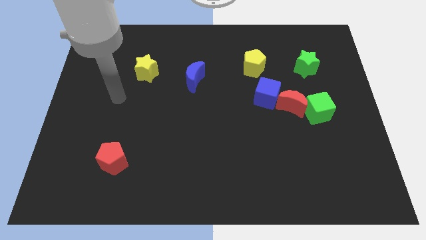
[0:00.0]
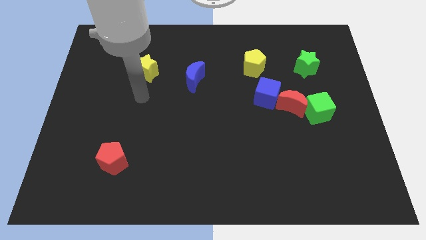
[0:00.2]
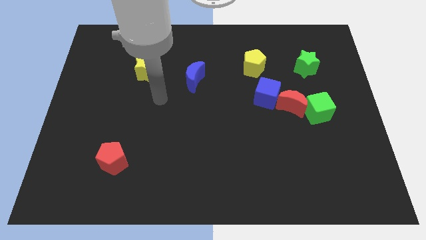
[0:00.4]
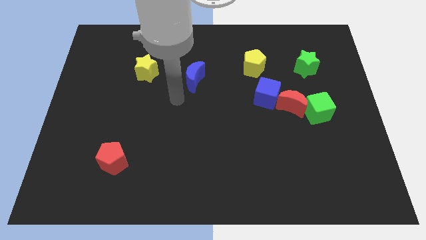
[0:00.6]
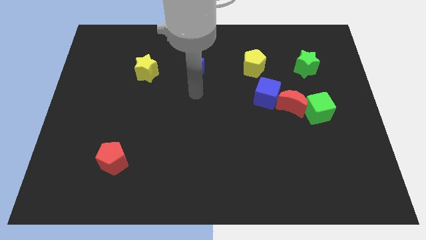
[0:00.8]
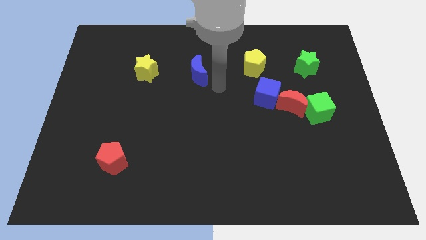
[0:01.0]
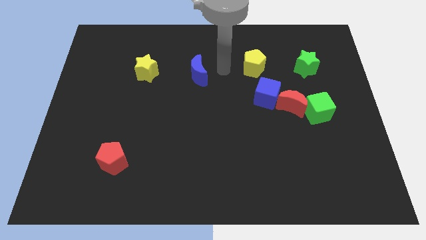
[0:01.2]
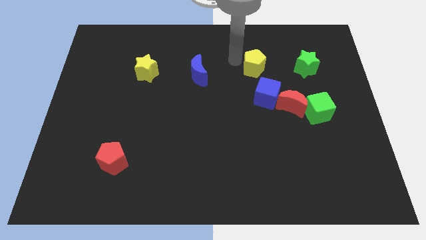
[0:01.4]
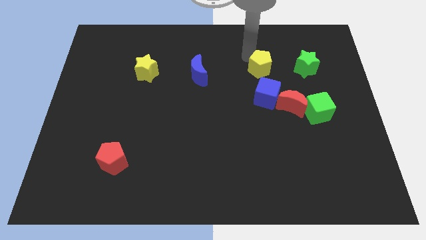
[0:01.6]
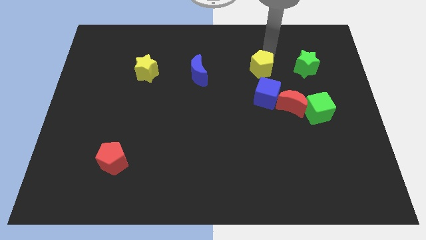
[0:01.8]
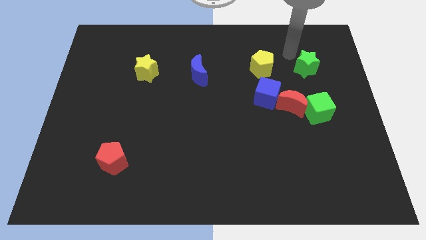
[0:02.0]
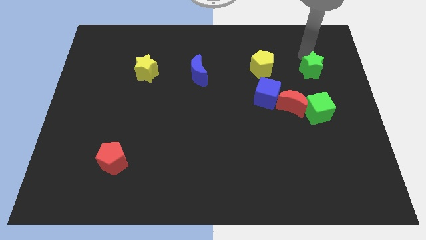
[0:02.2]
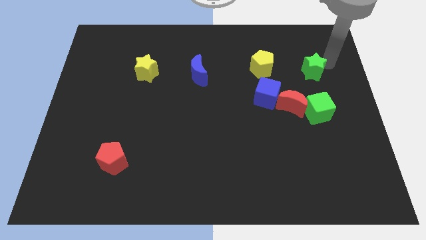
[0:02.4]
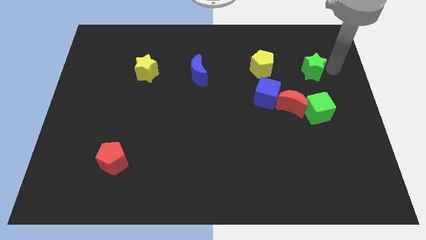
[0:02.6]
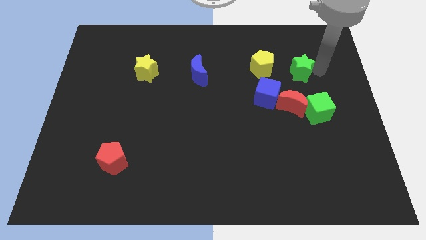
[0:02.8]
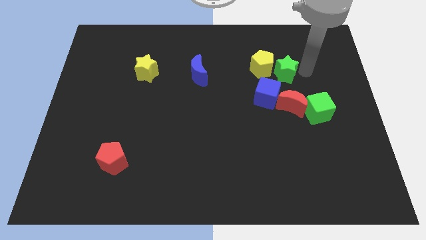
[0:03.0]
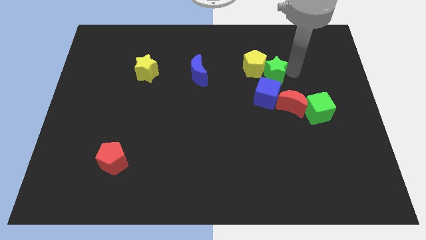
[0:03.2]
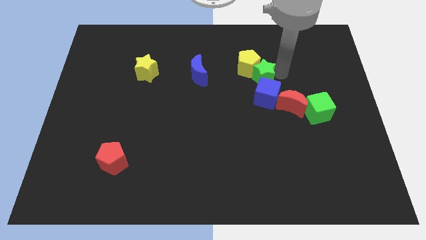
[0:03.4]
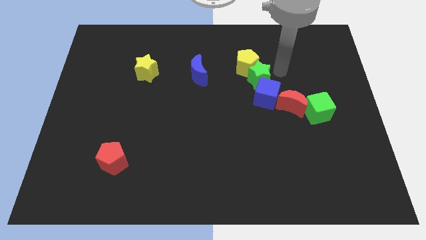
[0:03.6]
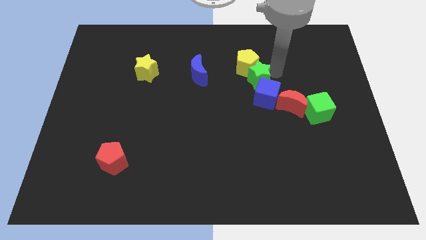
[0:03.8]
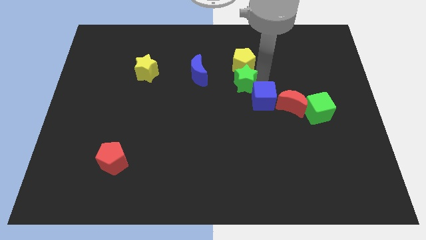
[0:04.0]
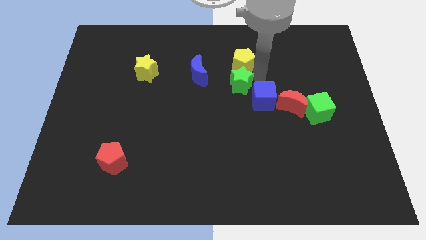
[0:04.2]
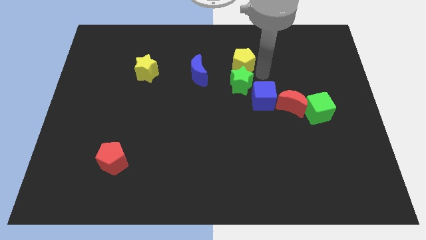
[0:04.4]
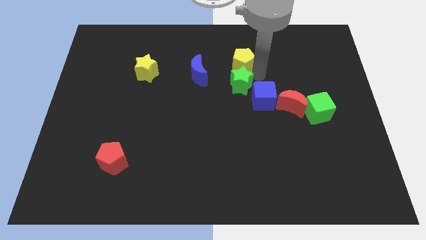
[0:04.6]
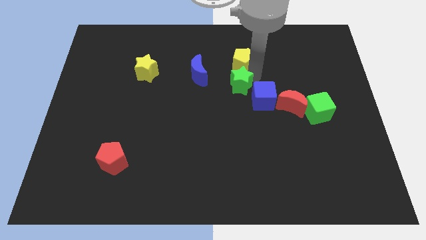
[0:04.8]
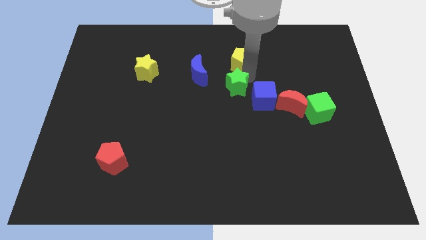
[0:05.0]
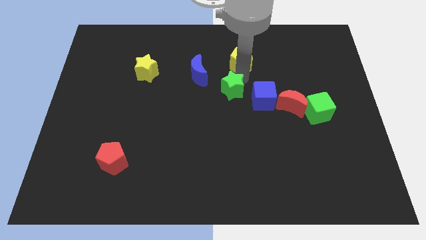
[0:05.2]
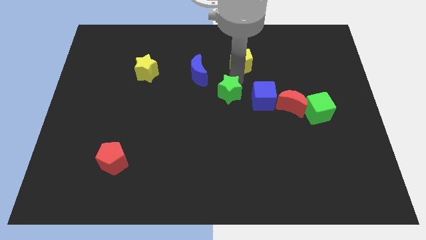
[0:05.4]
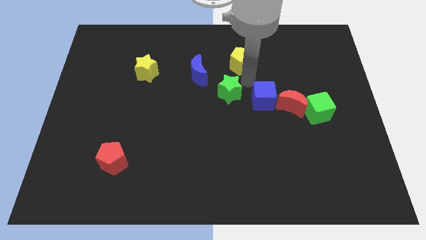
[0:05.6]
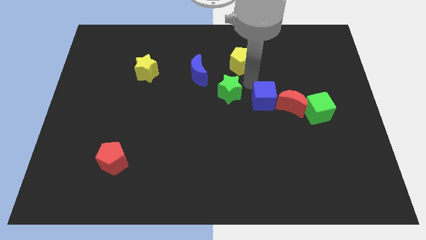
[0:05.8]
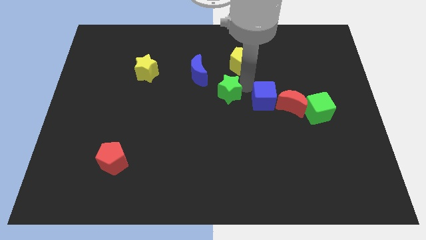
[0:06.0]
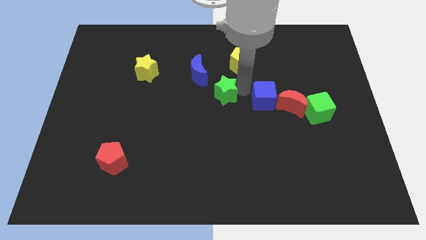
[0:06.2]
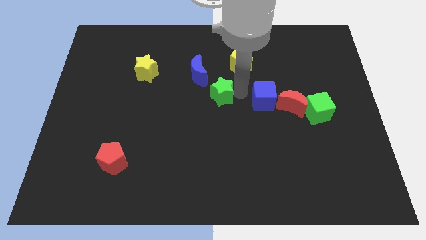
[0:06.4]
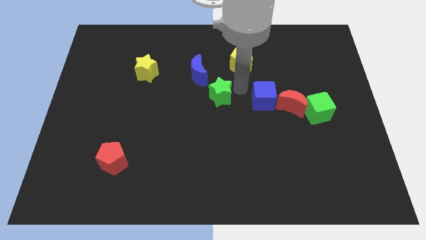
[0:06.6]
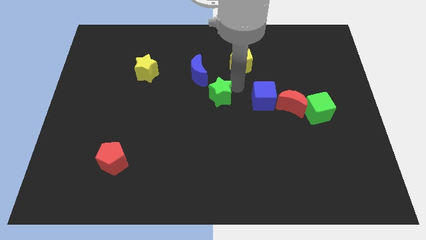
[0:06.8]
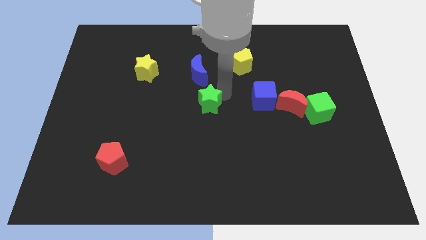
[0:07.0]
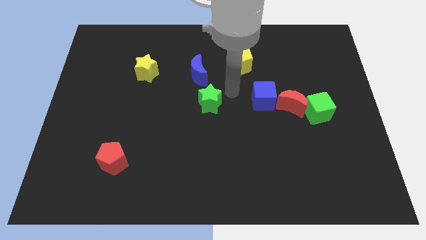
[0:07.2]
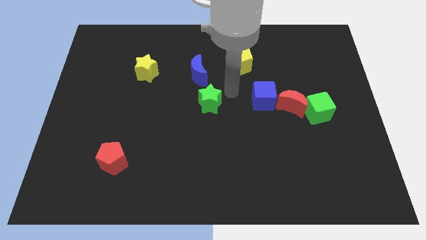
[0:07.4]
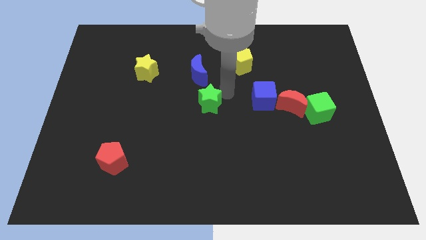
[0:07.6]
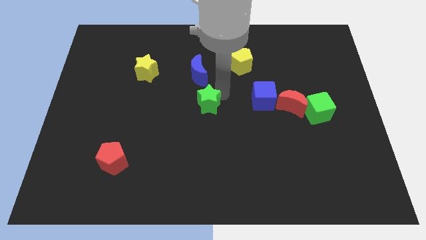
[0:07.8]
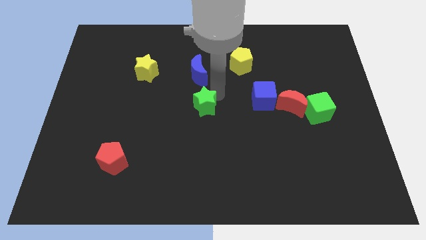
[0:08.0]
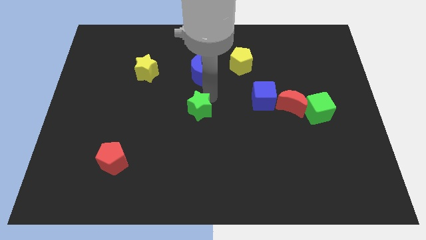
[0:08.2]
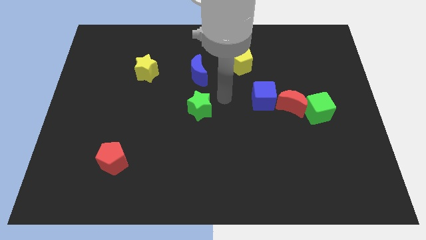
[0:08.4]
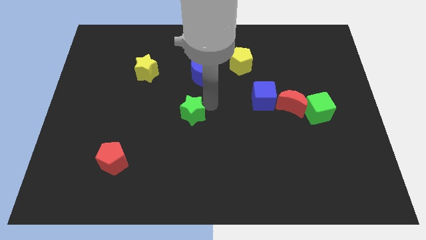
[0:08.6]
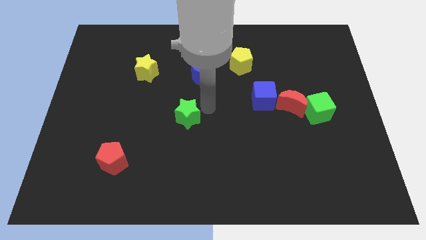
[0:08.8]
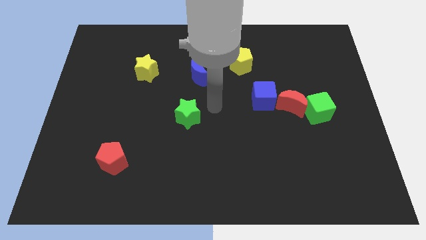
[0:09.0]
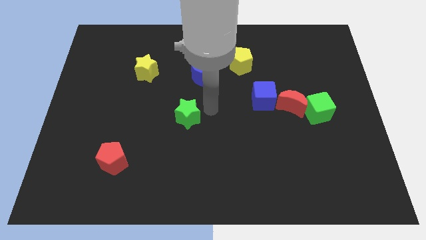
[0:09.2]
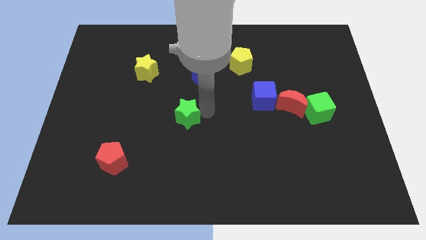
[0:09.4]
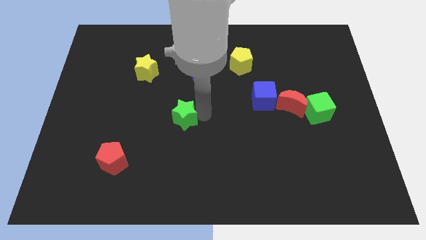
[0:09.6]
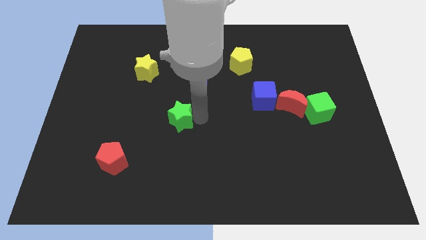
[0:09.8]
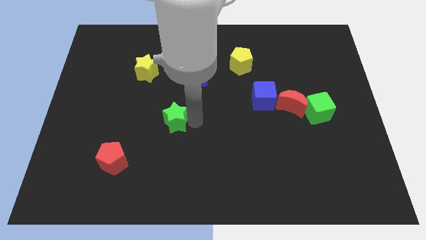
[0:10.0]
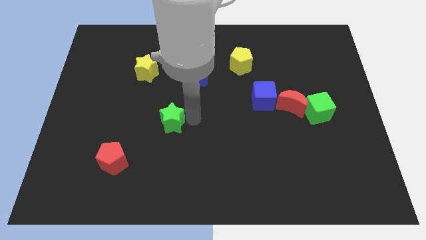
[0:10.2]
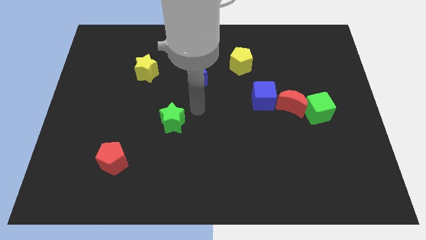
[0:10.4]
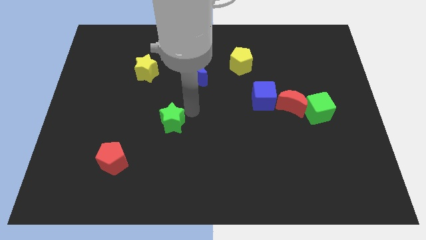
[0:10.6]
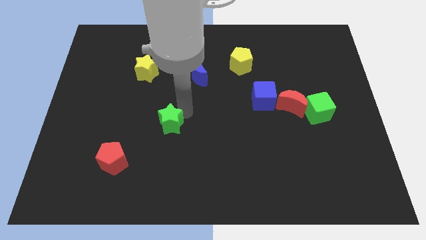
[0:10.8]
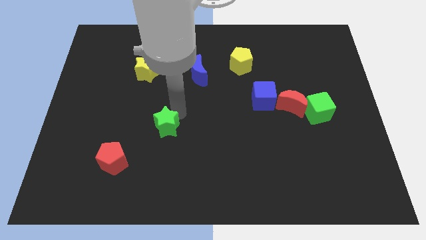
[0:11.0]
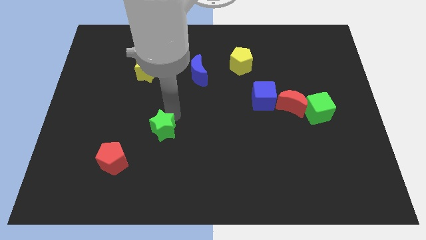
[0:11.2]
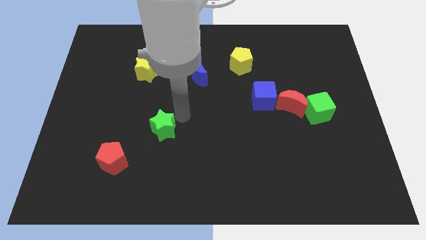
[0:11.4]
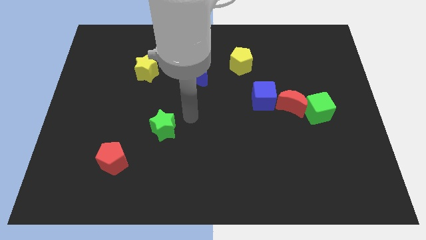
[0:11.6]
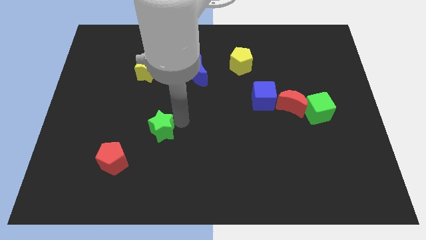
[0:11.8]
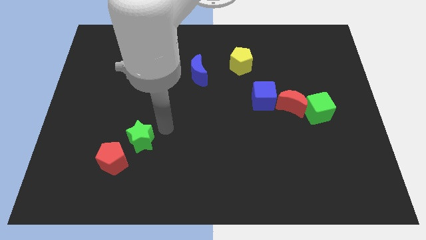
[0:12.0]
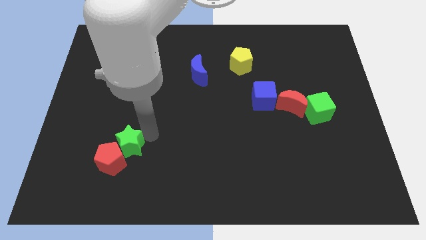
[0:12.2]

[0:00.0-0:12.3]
move the green star to the red pentagon

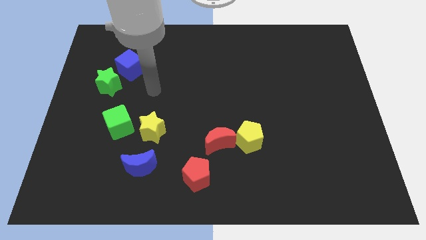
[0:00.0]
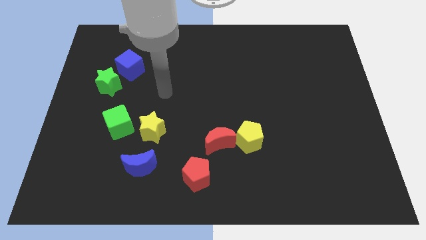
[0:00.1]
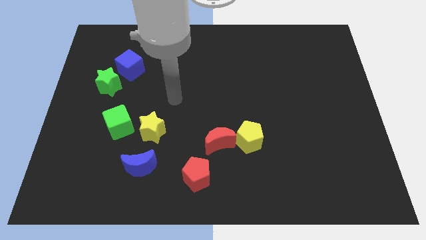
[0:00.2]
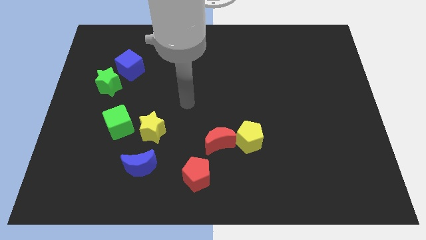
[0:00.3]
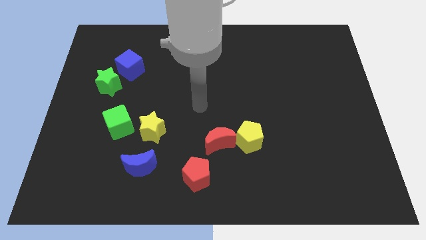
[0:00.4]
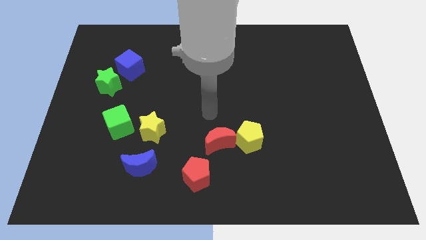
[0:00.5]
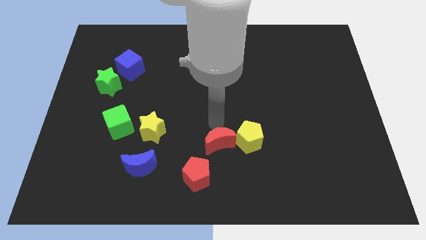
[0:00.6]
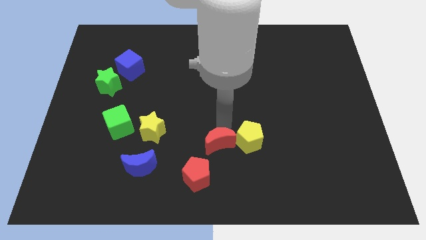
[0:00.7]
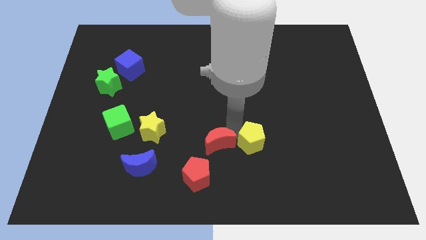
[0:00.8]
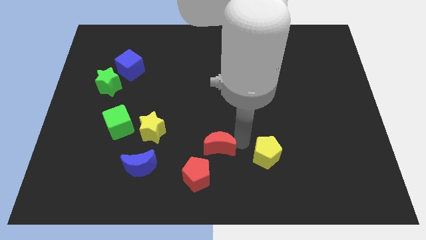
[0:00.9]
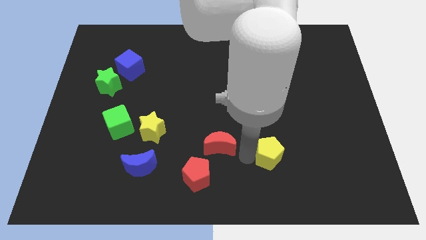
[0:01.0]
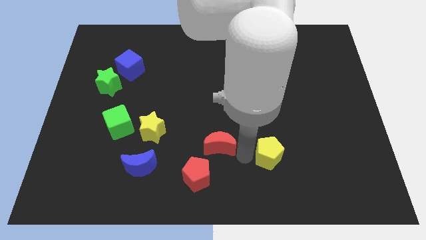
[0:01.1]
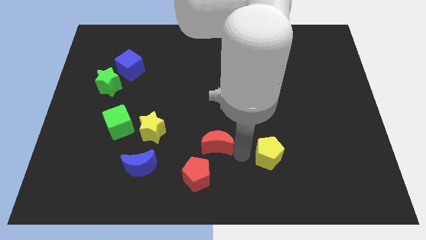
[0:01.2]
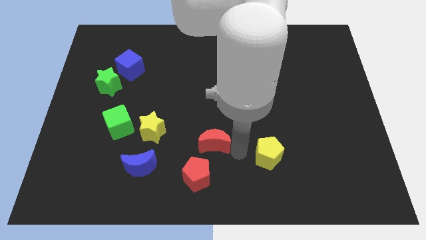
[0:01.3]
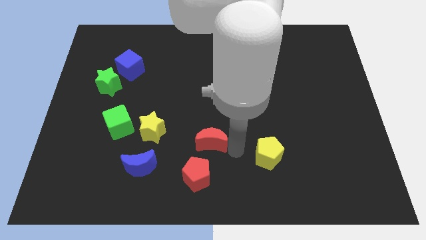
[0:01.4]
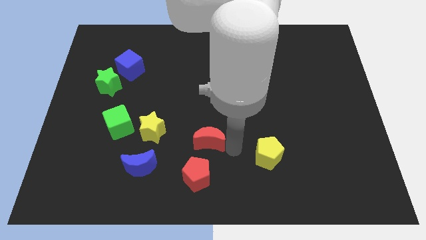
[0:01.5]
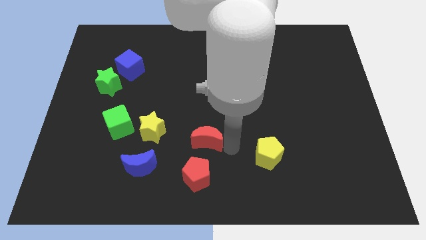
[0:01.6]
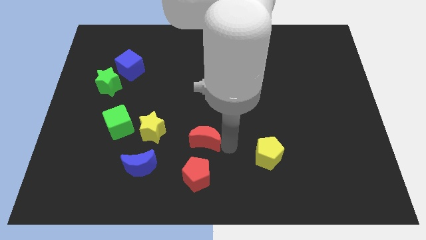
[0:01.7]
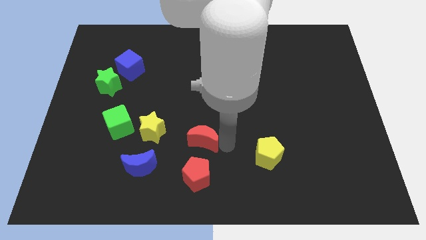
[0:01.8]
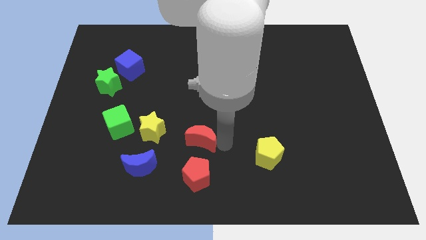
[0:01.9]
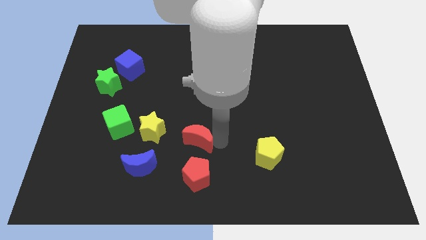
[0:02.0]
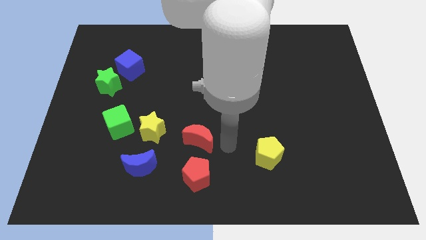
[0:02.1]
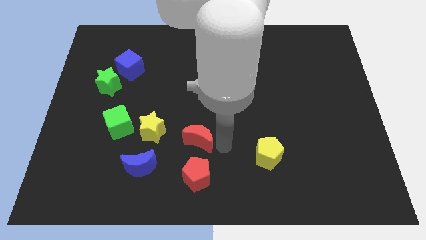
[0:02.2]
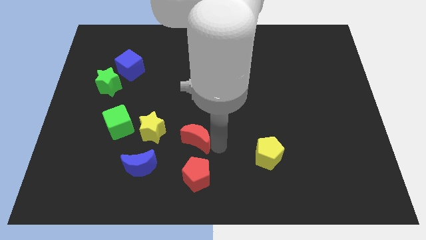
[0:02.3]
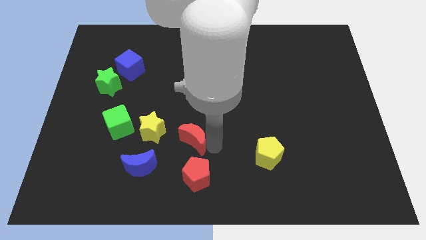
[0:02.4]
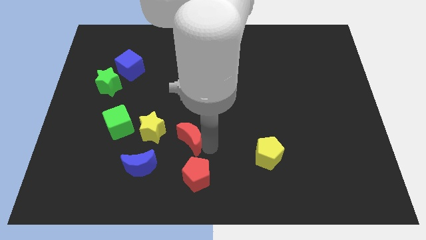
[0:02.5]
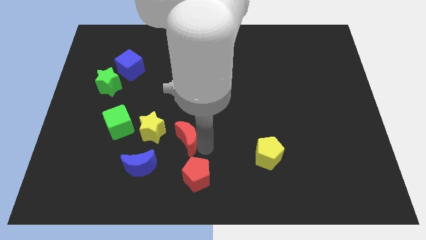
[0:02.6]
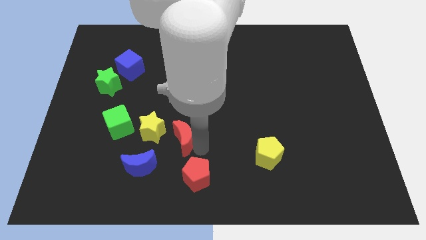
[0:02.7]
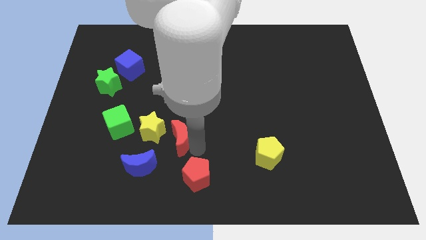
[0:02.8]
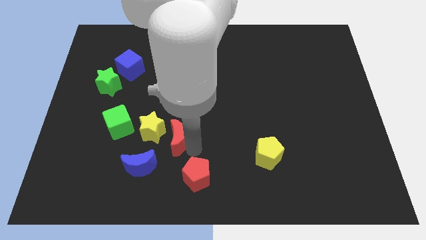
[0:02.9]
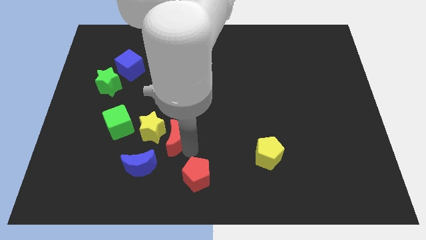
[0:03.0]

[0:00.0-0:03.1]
push the red moon towards the yellow star
